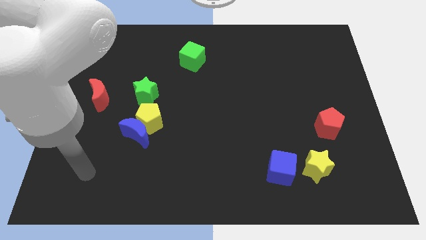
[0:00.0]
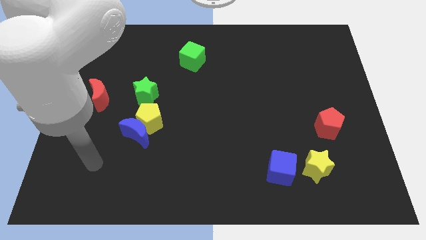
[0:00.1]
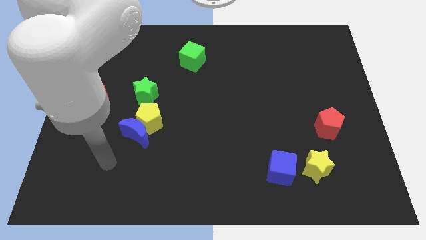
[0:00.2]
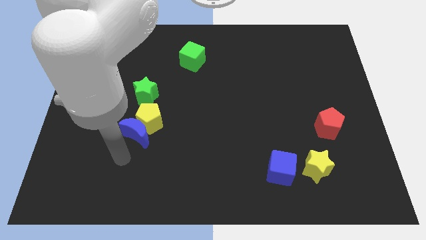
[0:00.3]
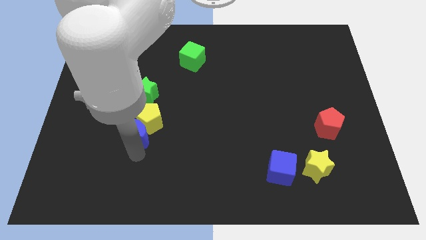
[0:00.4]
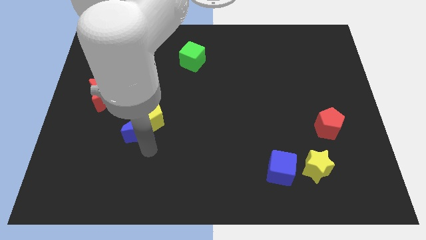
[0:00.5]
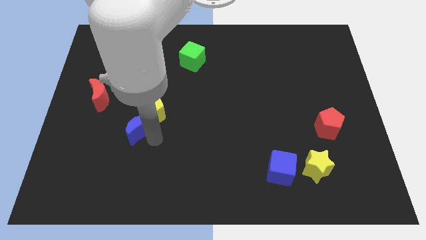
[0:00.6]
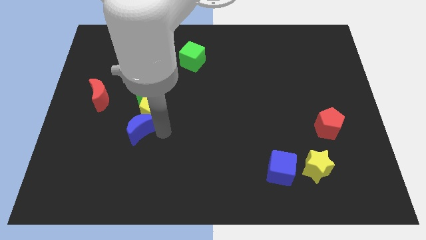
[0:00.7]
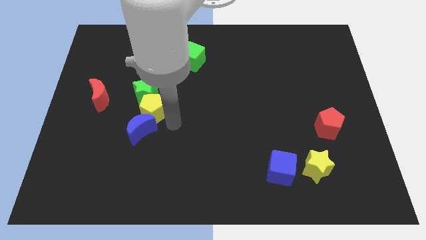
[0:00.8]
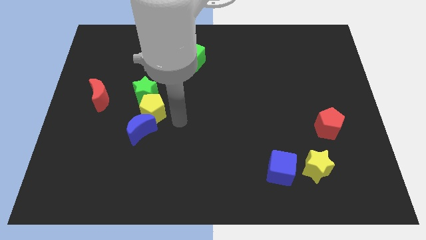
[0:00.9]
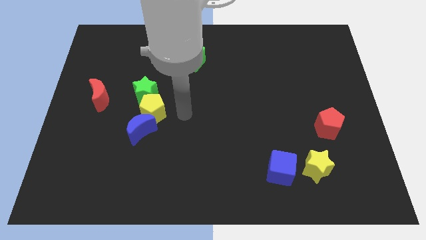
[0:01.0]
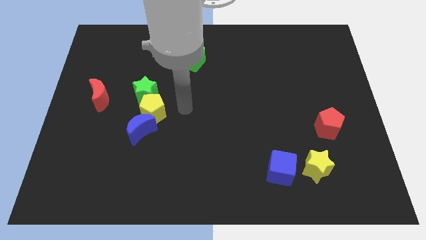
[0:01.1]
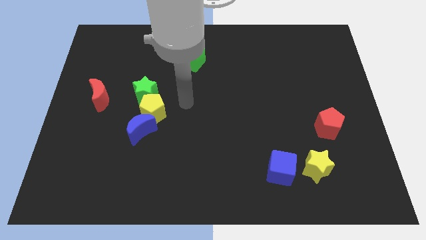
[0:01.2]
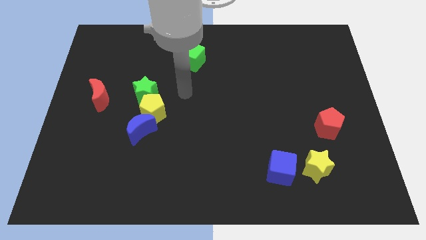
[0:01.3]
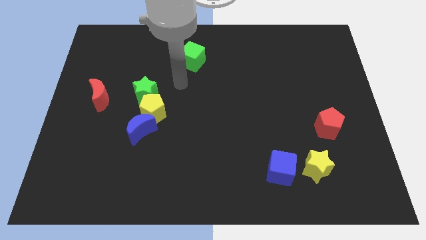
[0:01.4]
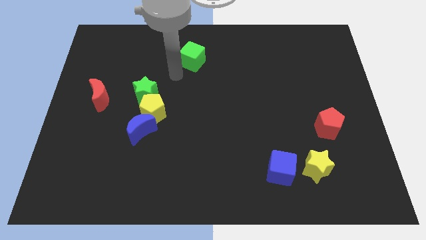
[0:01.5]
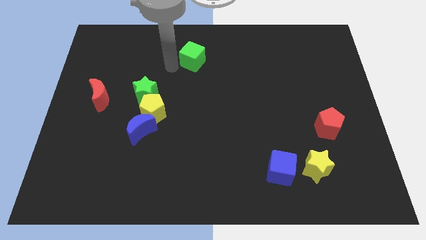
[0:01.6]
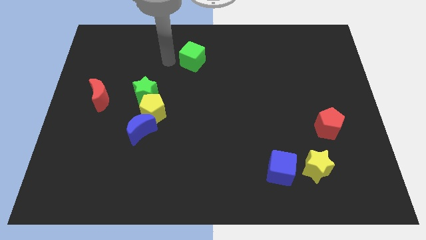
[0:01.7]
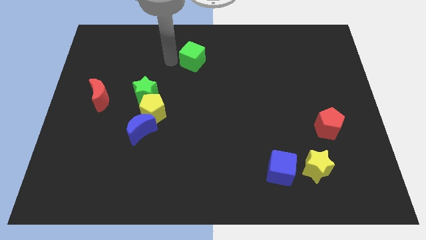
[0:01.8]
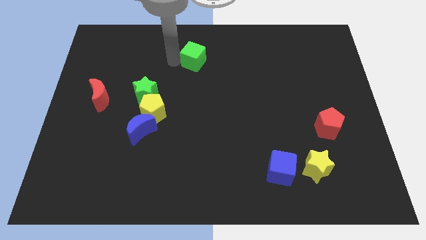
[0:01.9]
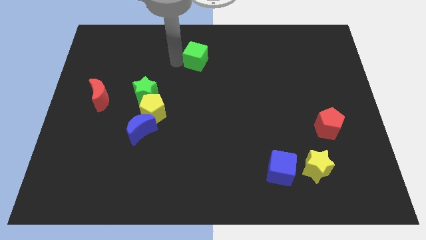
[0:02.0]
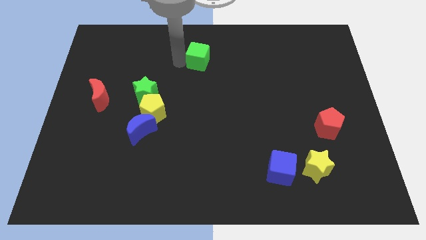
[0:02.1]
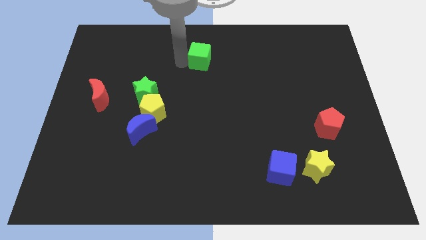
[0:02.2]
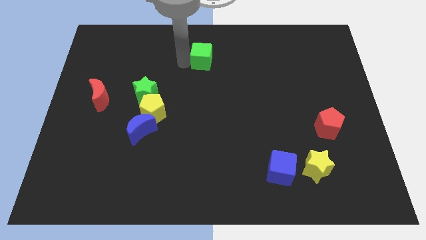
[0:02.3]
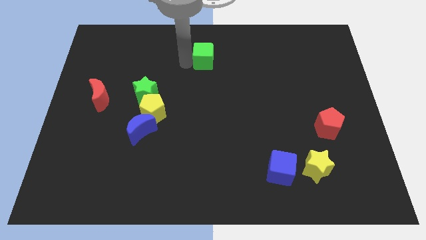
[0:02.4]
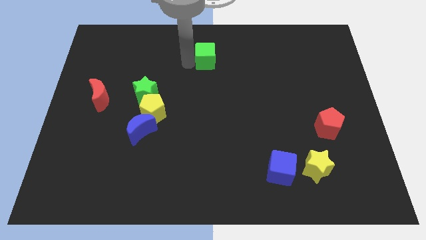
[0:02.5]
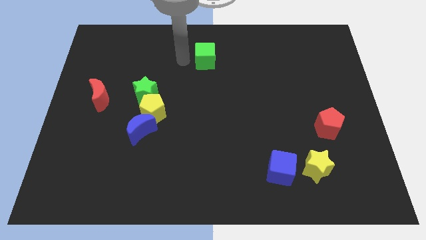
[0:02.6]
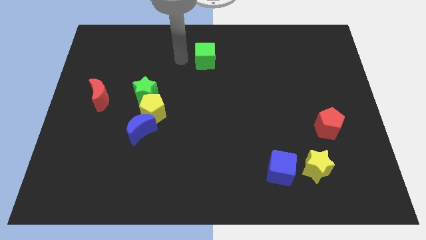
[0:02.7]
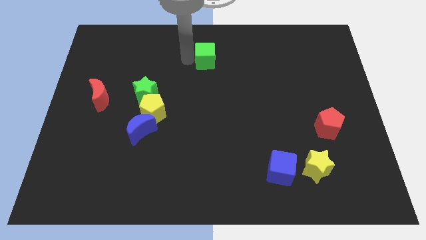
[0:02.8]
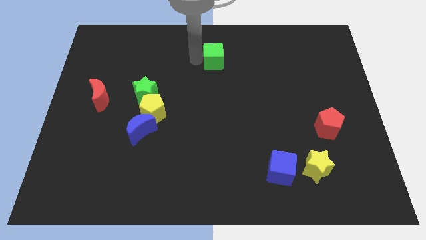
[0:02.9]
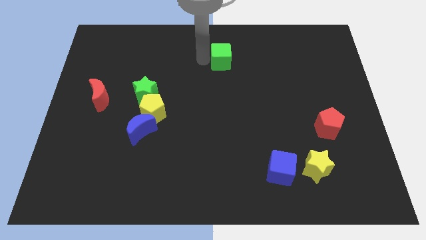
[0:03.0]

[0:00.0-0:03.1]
slightly slide the green cube to the right

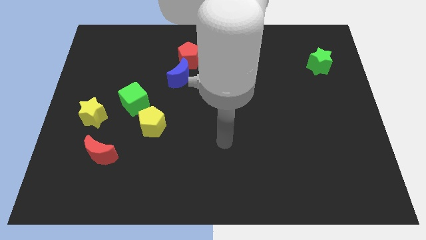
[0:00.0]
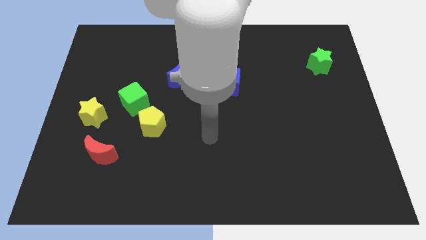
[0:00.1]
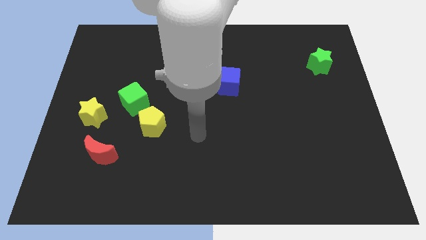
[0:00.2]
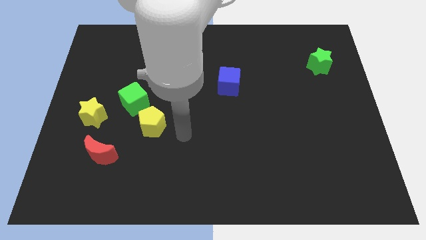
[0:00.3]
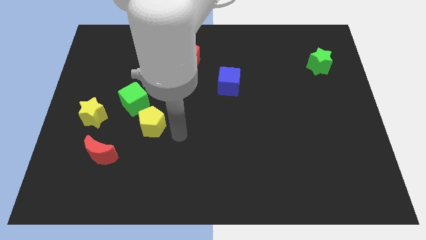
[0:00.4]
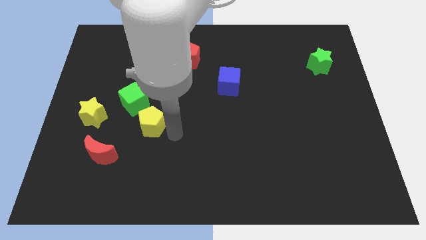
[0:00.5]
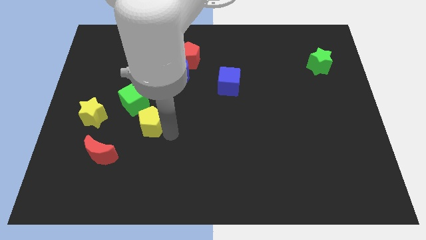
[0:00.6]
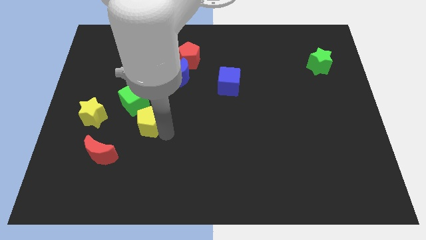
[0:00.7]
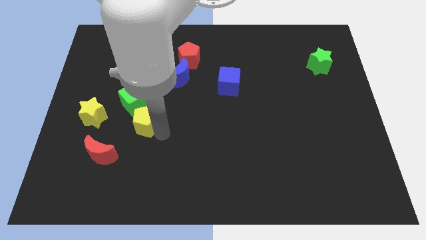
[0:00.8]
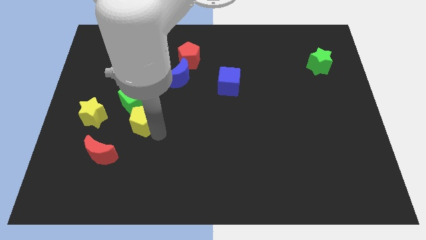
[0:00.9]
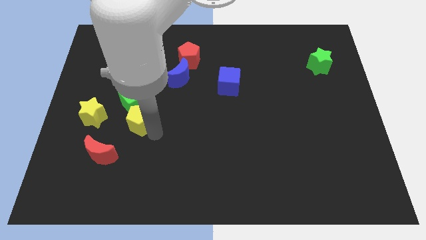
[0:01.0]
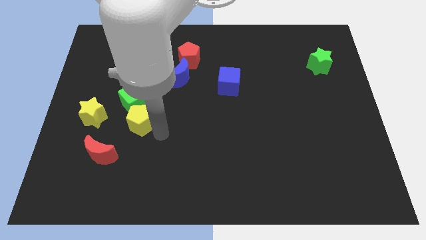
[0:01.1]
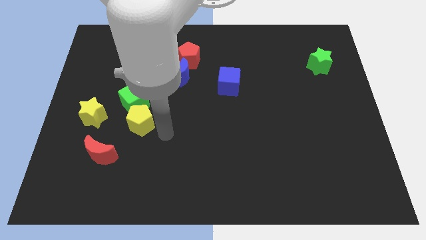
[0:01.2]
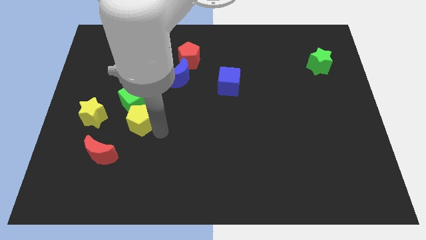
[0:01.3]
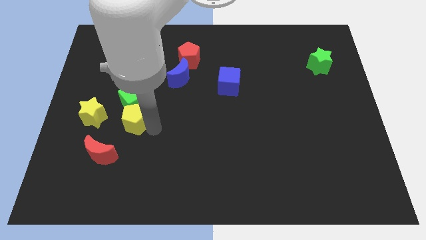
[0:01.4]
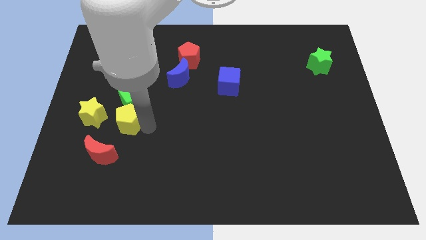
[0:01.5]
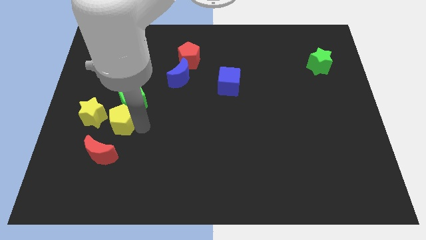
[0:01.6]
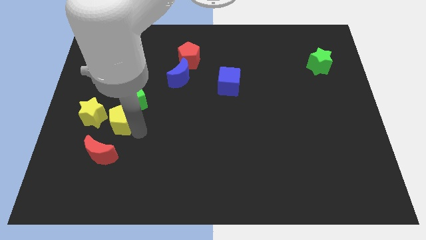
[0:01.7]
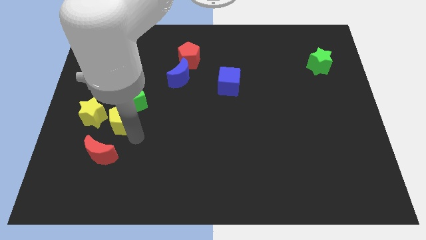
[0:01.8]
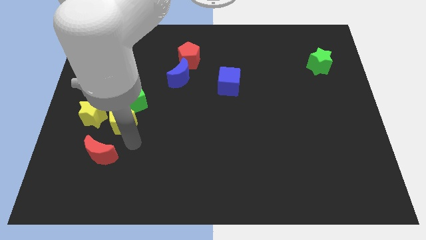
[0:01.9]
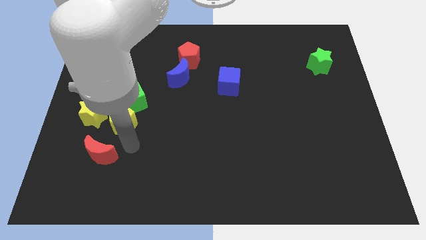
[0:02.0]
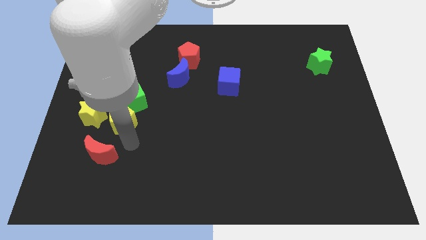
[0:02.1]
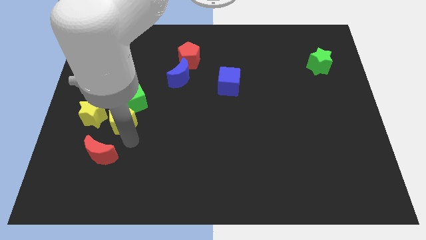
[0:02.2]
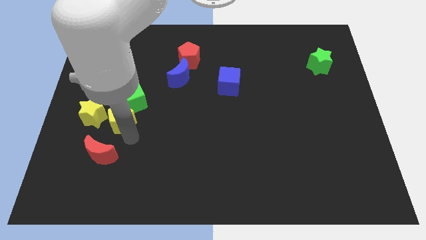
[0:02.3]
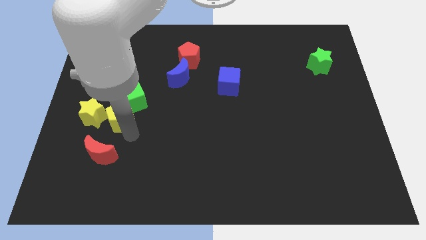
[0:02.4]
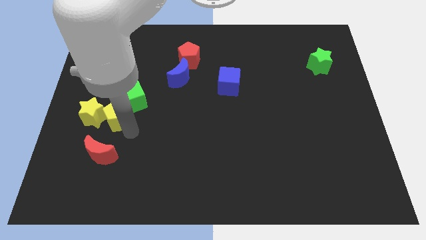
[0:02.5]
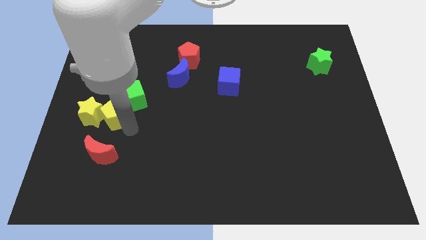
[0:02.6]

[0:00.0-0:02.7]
push the yellow pentagon a bit upwards and then left

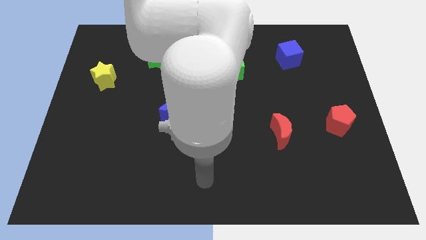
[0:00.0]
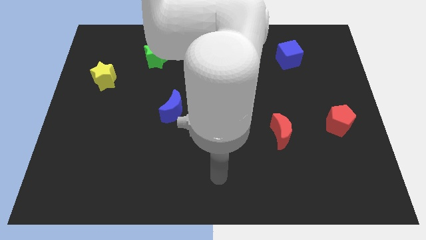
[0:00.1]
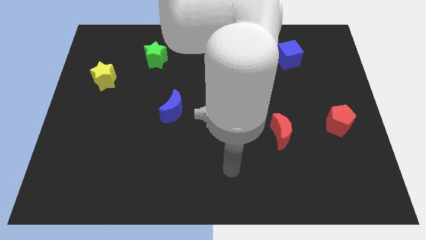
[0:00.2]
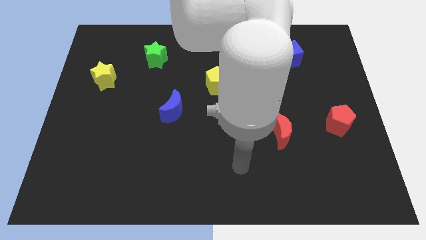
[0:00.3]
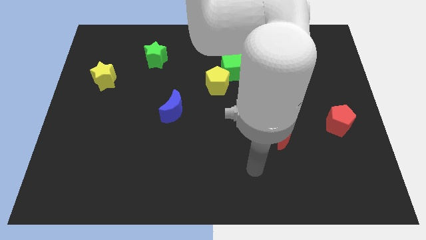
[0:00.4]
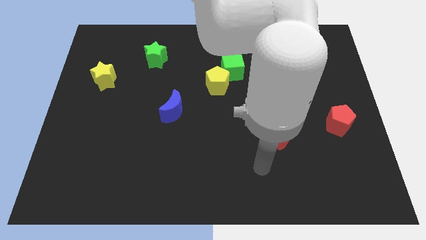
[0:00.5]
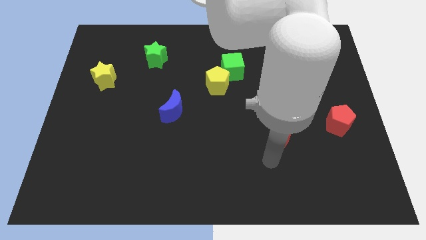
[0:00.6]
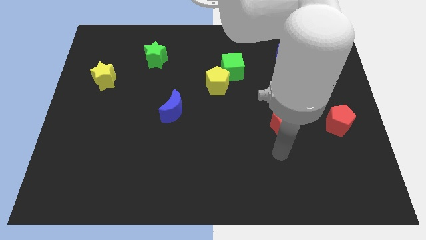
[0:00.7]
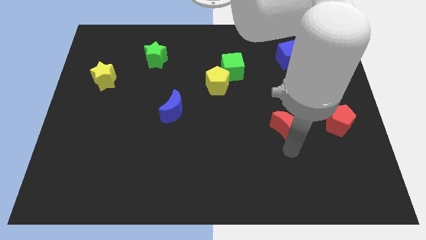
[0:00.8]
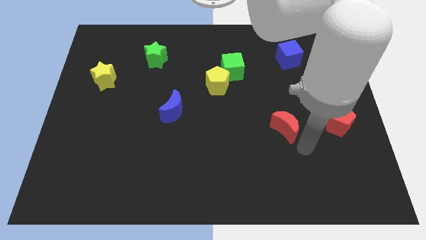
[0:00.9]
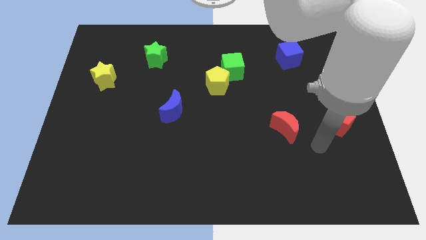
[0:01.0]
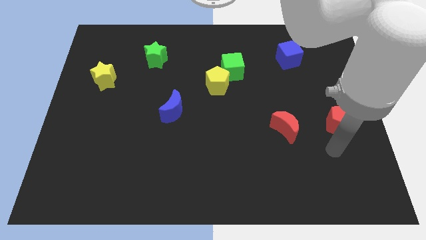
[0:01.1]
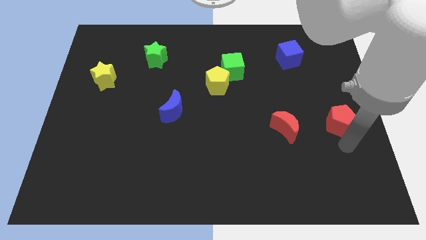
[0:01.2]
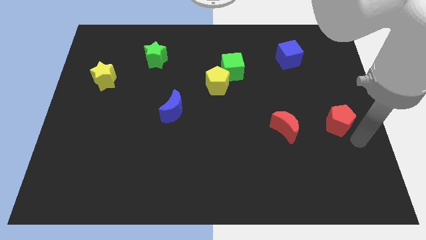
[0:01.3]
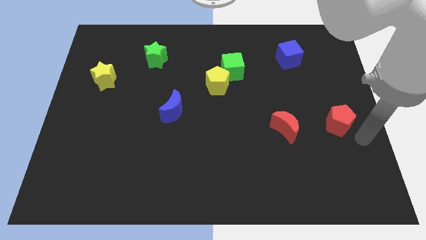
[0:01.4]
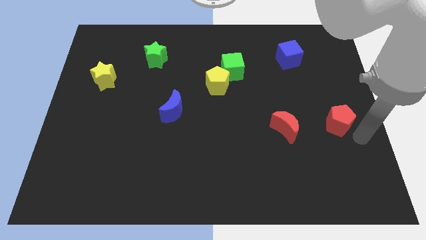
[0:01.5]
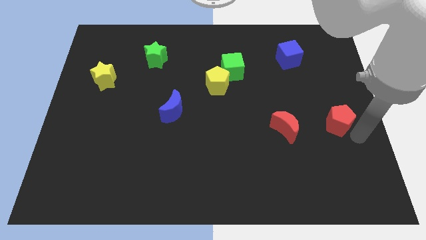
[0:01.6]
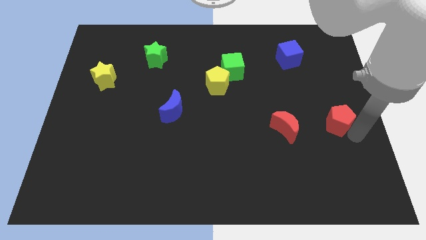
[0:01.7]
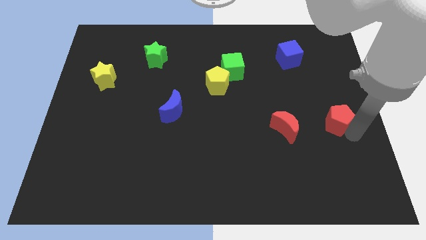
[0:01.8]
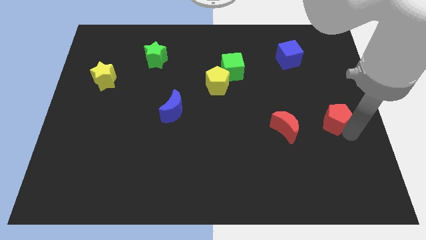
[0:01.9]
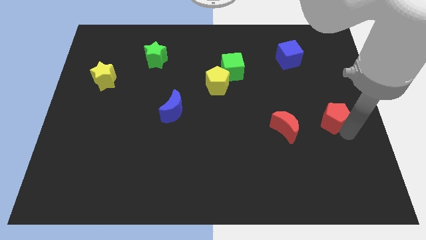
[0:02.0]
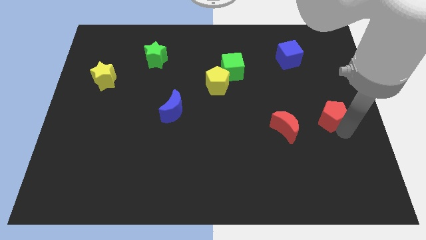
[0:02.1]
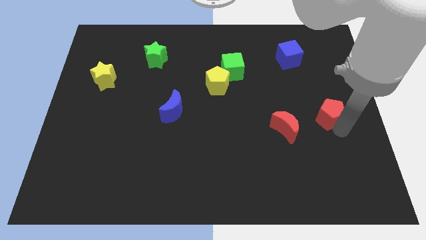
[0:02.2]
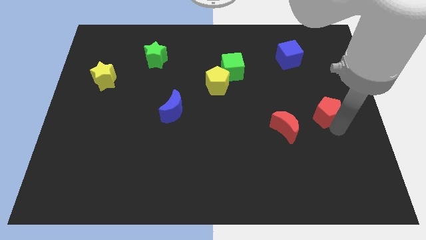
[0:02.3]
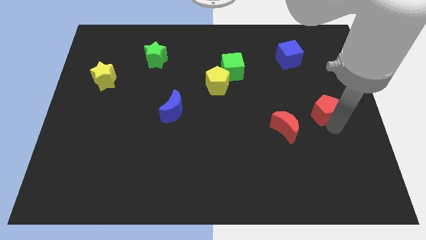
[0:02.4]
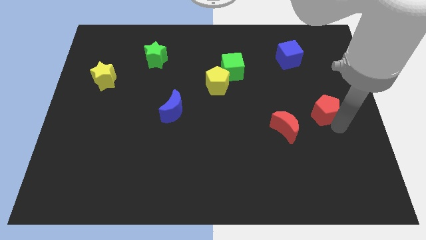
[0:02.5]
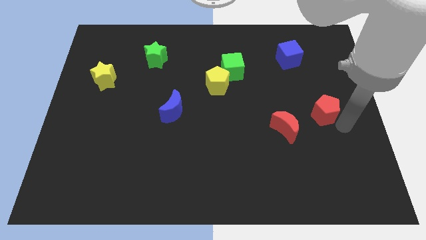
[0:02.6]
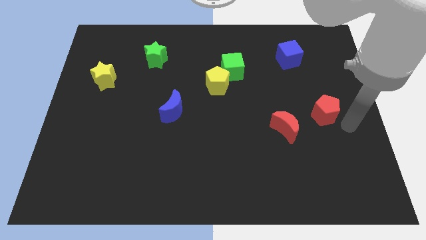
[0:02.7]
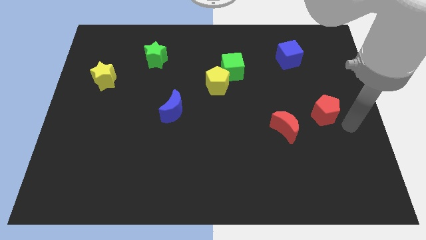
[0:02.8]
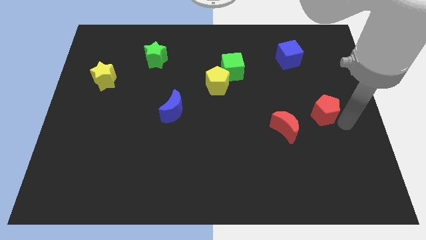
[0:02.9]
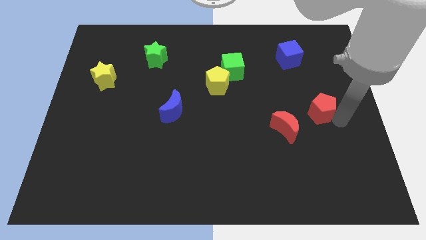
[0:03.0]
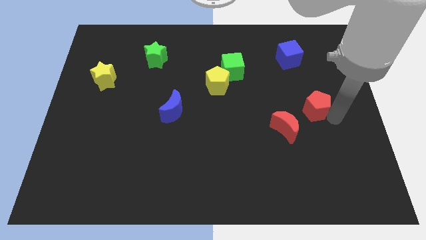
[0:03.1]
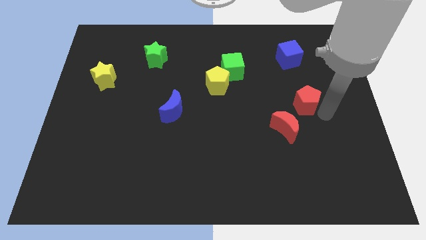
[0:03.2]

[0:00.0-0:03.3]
move the red pentagon upwards and then left a little
